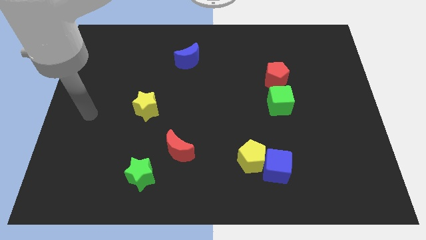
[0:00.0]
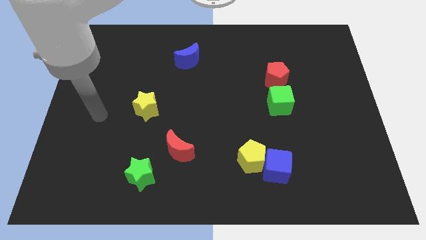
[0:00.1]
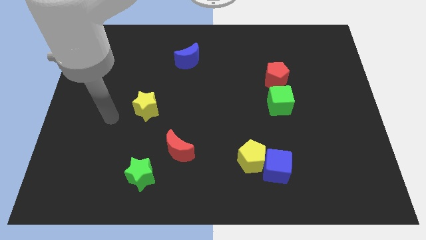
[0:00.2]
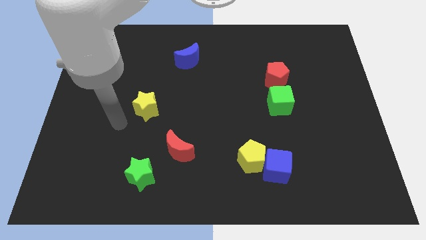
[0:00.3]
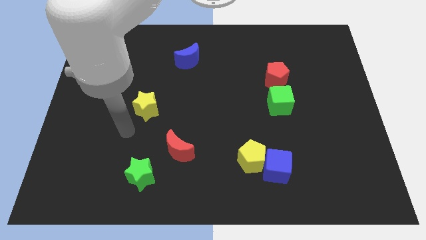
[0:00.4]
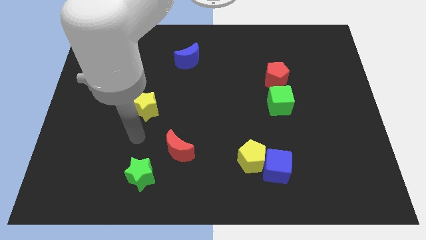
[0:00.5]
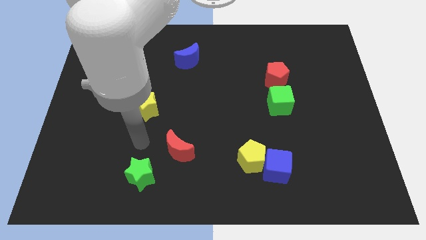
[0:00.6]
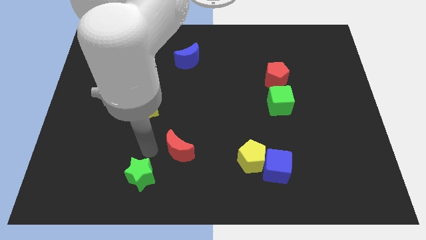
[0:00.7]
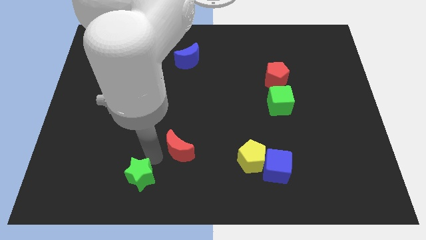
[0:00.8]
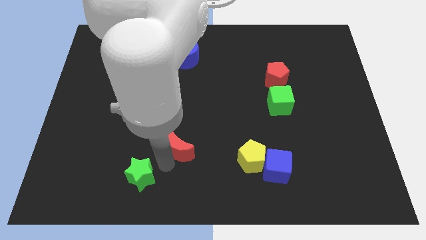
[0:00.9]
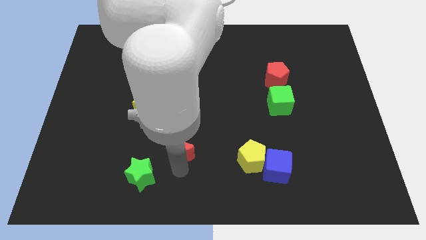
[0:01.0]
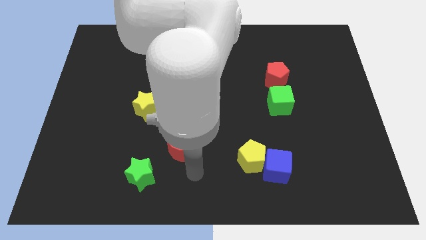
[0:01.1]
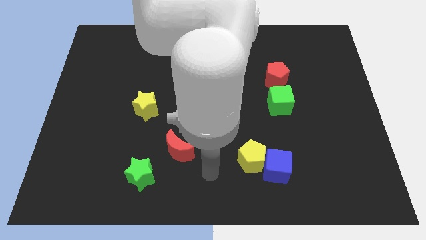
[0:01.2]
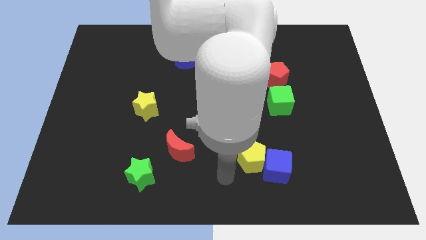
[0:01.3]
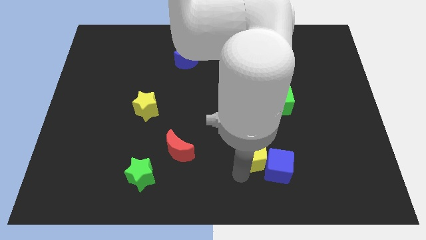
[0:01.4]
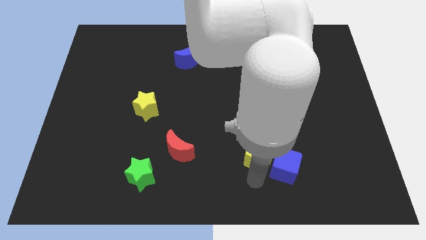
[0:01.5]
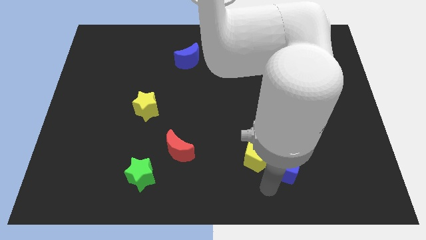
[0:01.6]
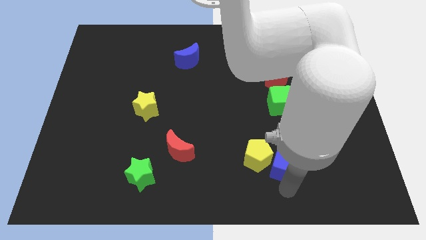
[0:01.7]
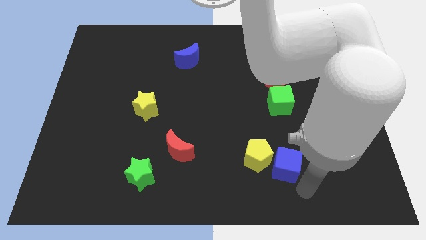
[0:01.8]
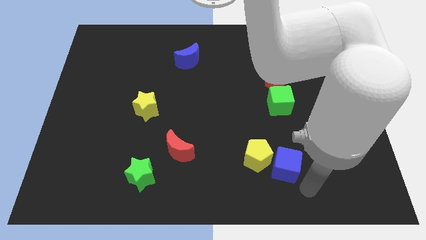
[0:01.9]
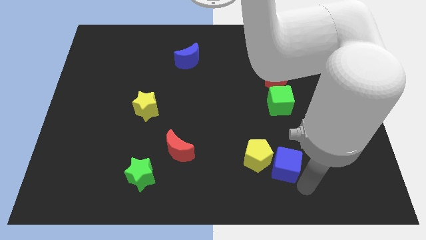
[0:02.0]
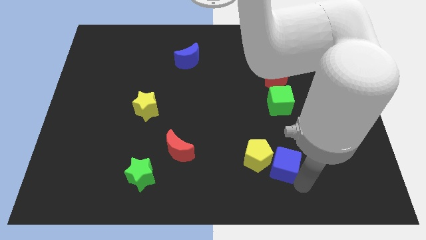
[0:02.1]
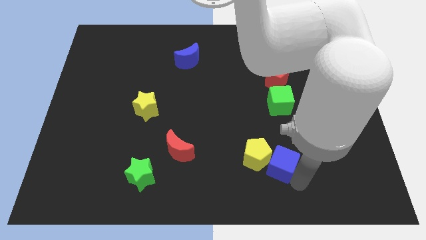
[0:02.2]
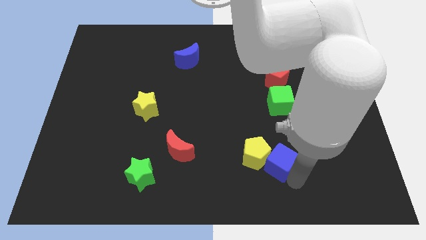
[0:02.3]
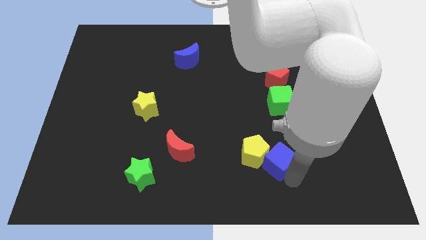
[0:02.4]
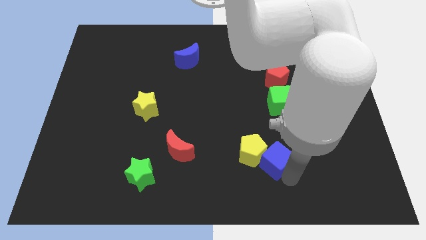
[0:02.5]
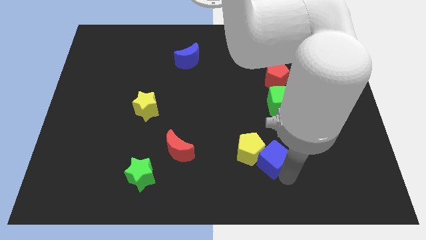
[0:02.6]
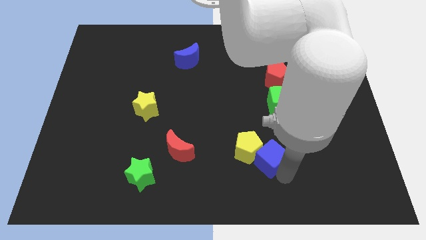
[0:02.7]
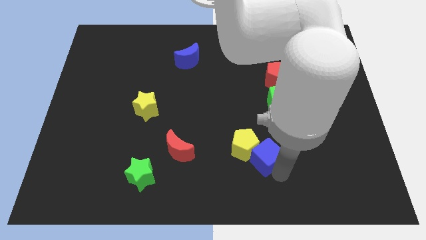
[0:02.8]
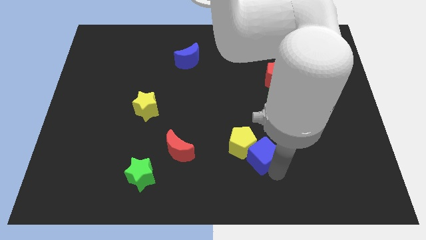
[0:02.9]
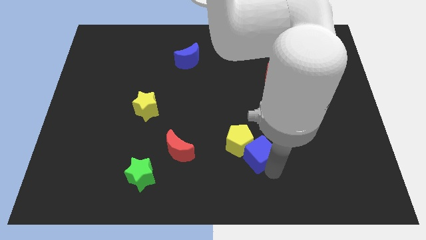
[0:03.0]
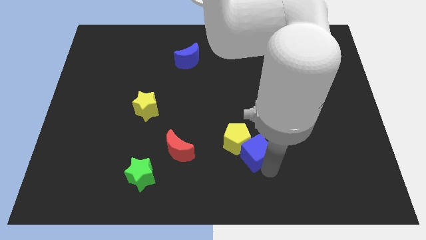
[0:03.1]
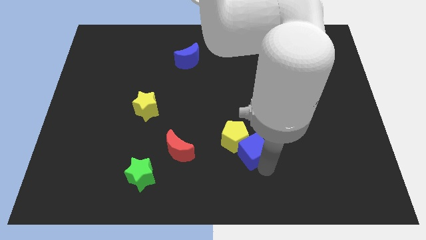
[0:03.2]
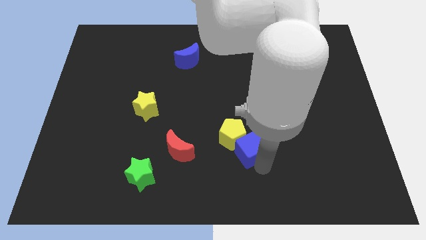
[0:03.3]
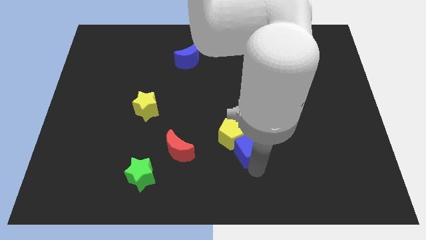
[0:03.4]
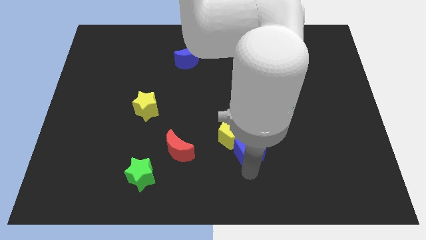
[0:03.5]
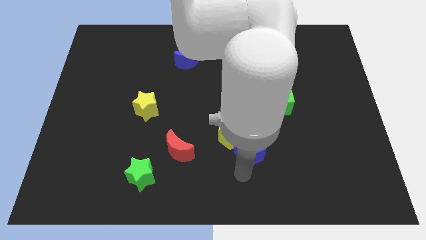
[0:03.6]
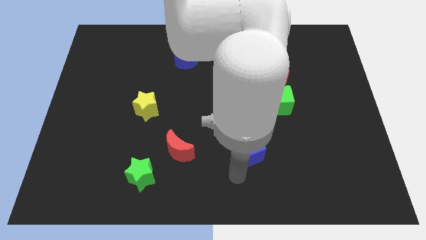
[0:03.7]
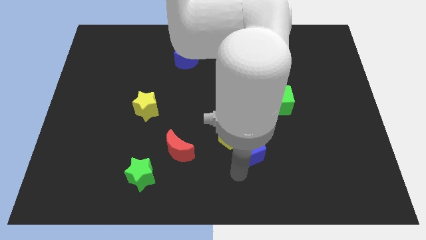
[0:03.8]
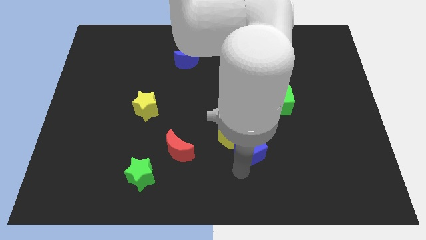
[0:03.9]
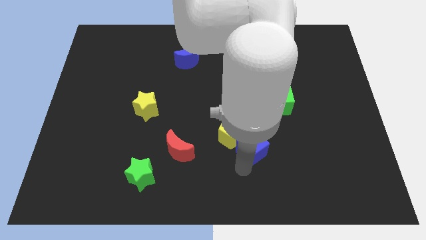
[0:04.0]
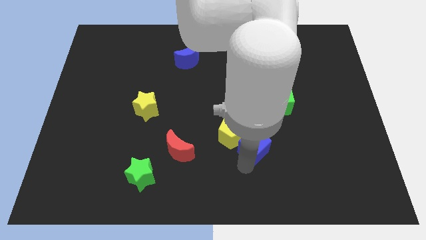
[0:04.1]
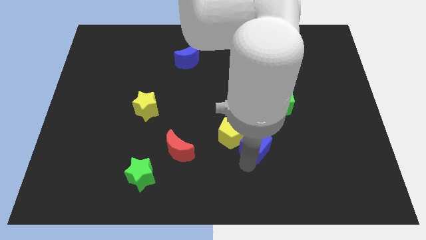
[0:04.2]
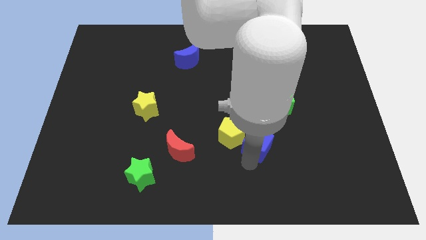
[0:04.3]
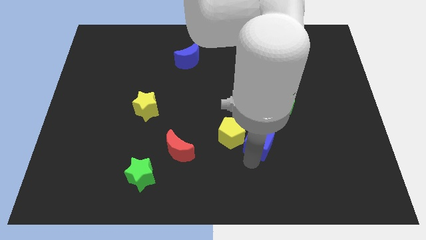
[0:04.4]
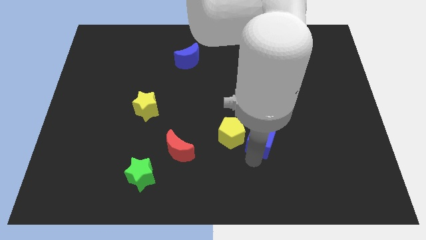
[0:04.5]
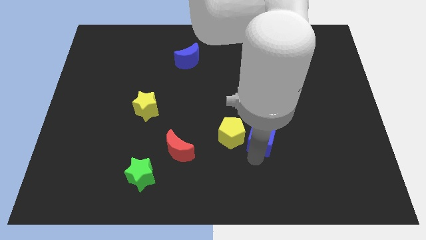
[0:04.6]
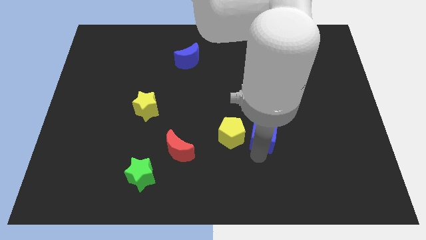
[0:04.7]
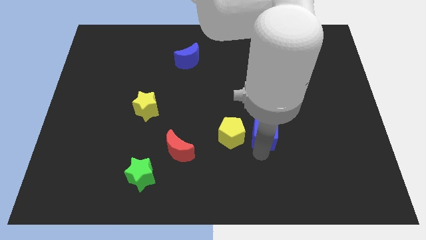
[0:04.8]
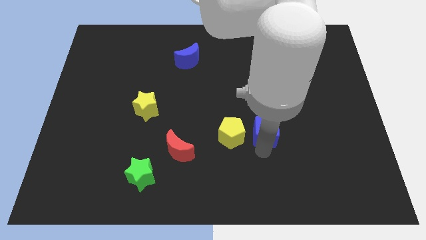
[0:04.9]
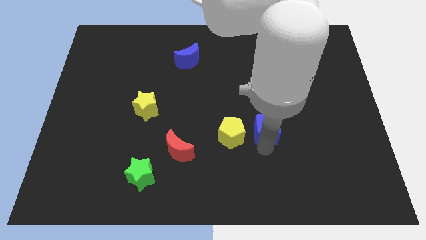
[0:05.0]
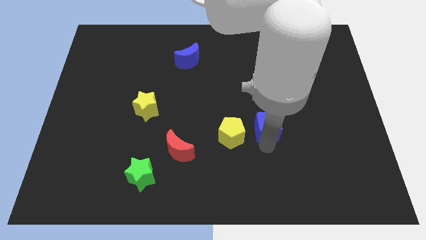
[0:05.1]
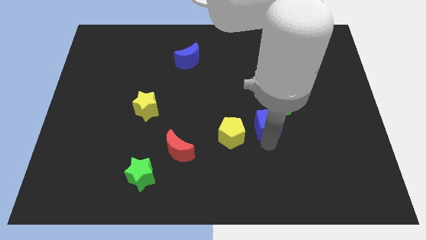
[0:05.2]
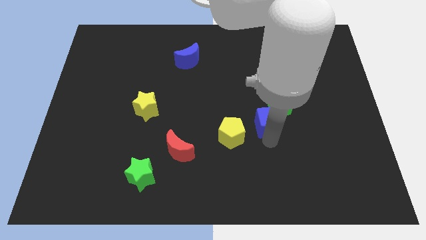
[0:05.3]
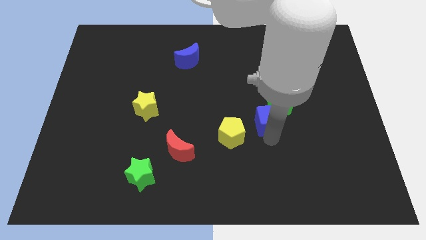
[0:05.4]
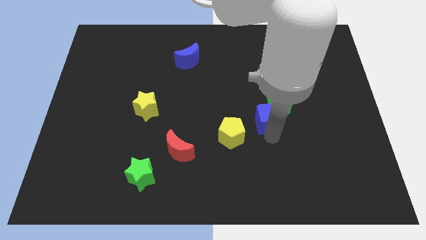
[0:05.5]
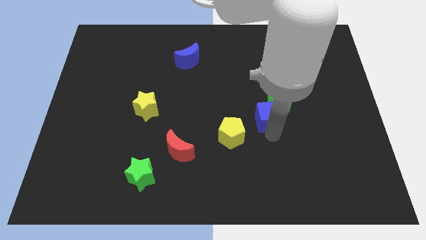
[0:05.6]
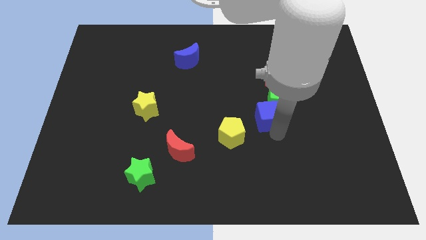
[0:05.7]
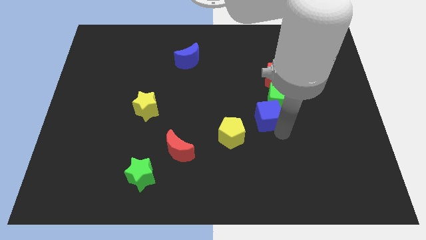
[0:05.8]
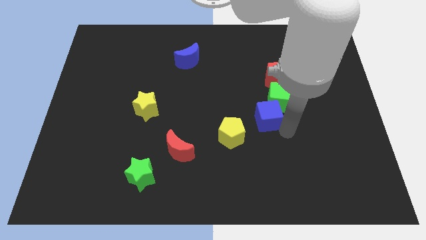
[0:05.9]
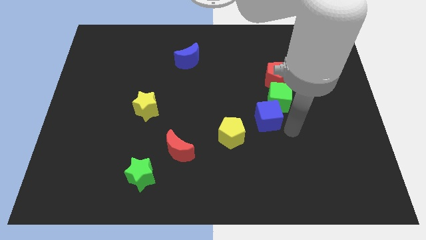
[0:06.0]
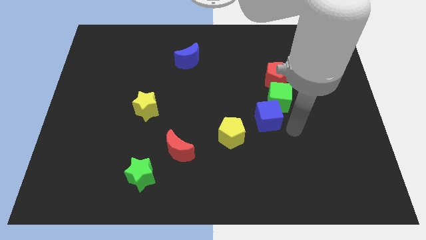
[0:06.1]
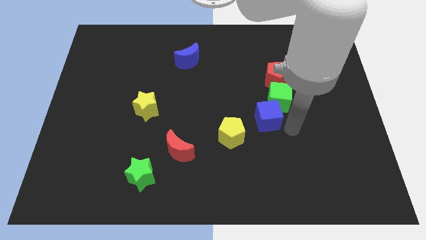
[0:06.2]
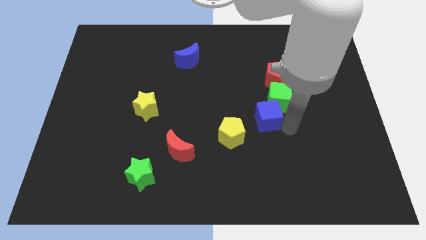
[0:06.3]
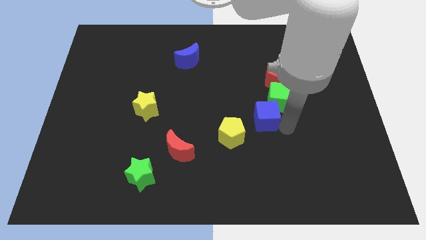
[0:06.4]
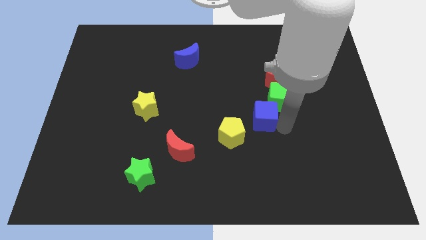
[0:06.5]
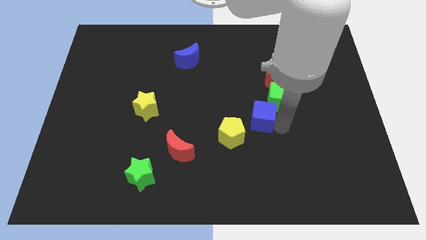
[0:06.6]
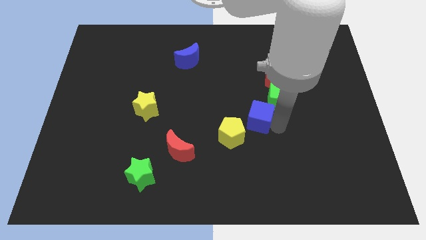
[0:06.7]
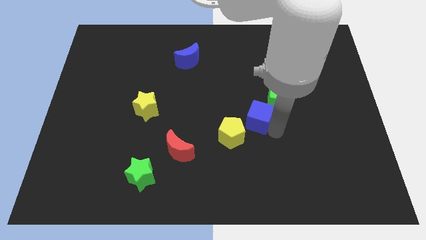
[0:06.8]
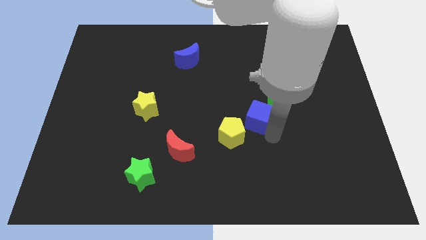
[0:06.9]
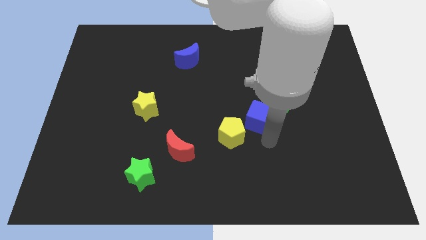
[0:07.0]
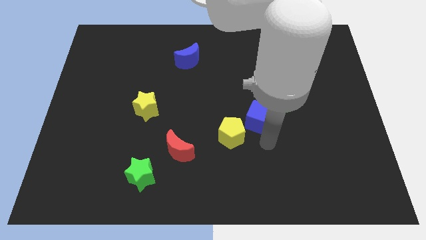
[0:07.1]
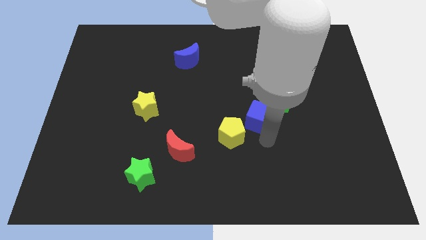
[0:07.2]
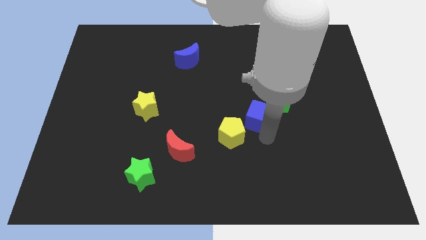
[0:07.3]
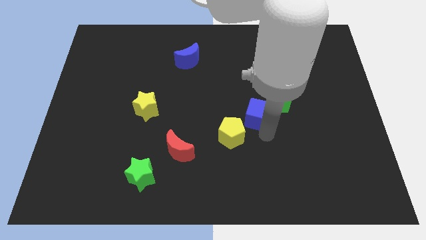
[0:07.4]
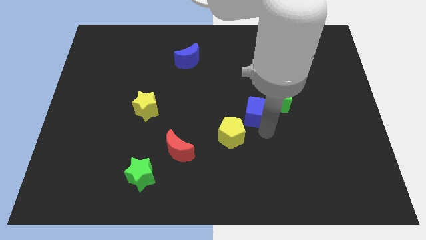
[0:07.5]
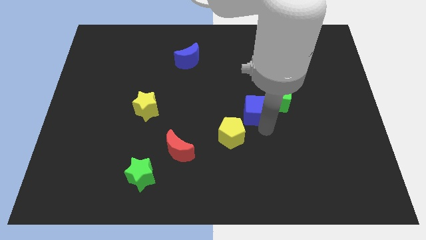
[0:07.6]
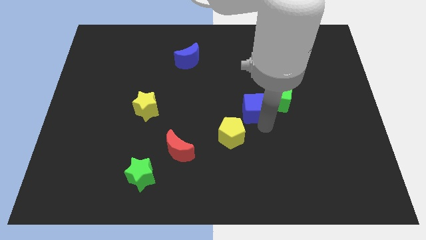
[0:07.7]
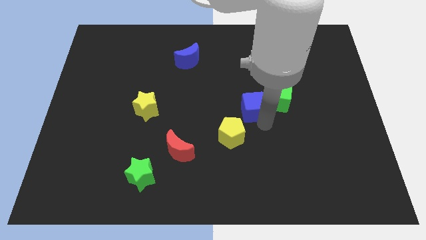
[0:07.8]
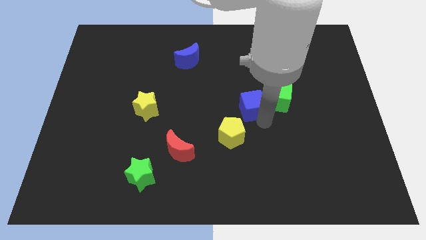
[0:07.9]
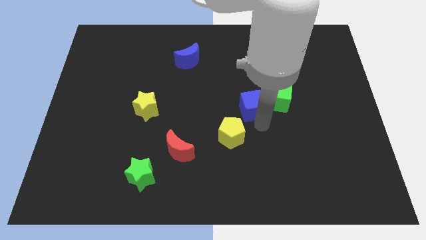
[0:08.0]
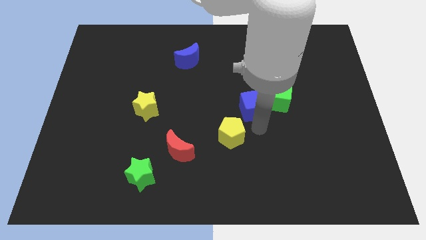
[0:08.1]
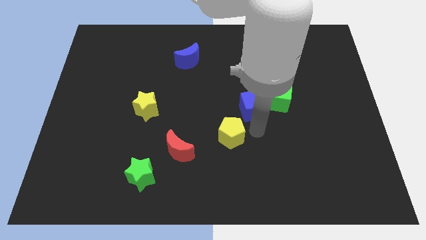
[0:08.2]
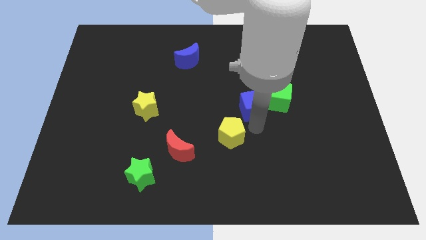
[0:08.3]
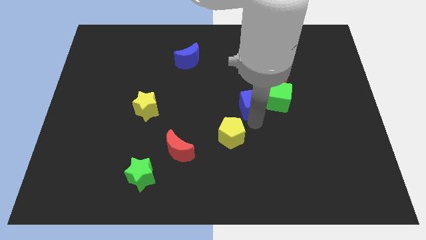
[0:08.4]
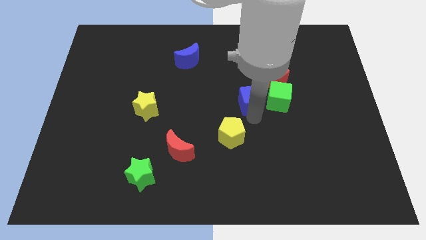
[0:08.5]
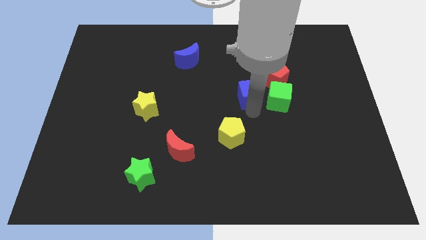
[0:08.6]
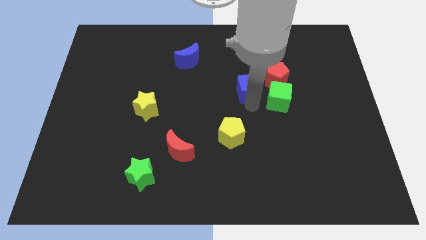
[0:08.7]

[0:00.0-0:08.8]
slide the blue cube up
